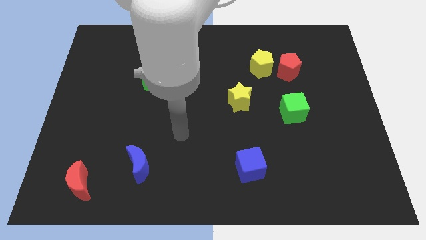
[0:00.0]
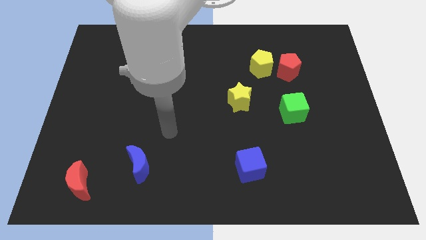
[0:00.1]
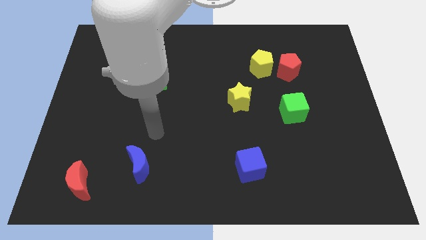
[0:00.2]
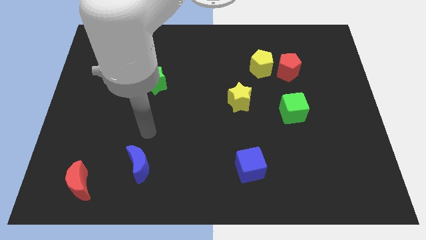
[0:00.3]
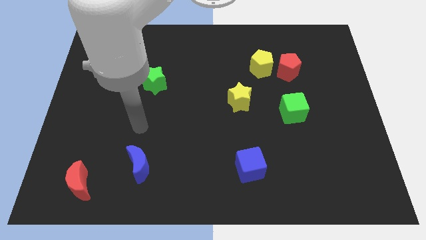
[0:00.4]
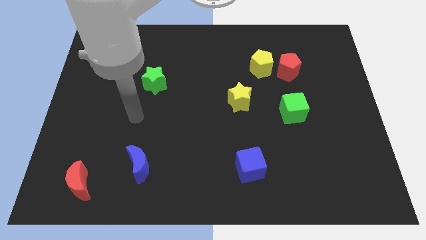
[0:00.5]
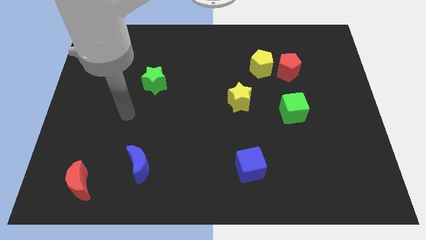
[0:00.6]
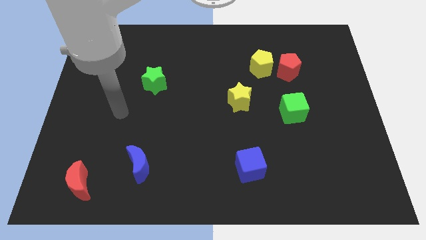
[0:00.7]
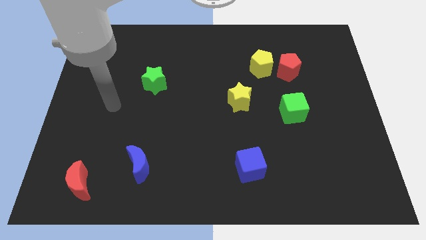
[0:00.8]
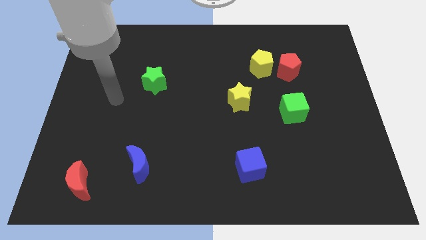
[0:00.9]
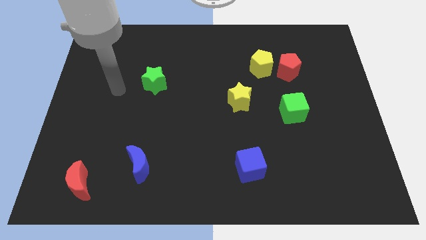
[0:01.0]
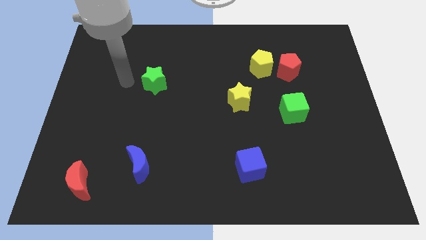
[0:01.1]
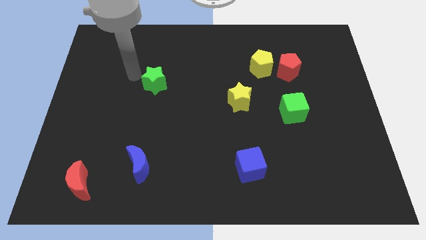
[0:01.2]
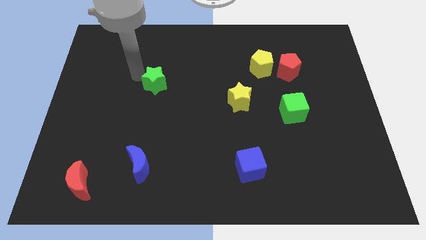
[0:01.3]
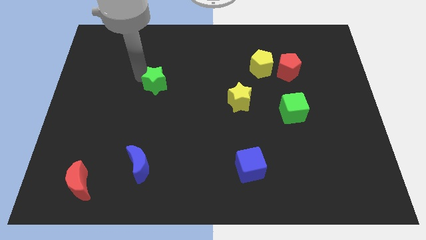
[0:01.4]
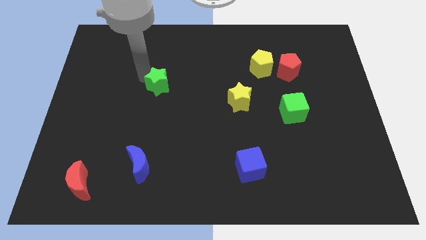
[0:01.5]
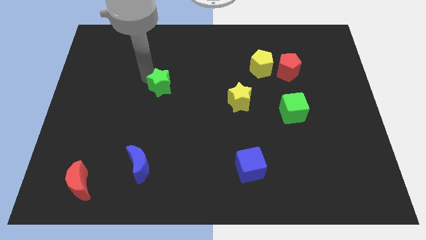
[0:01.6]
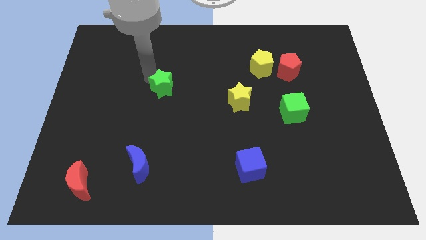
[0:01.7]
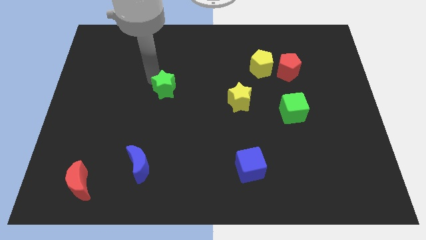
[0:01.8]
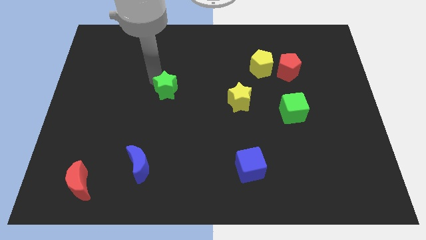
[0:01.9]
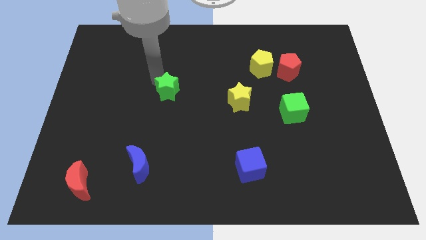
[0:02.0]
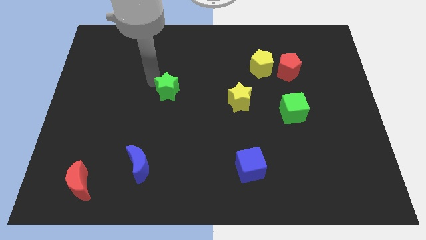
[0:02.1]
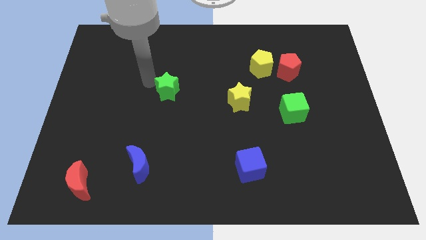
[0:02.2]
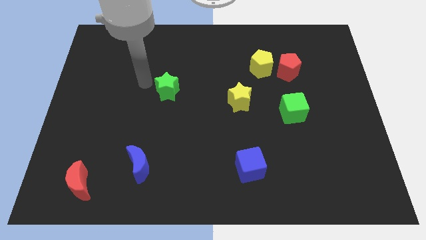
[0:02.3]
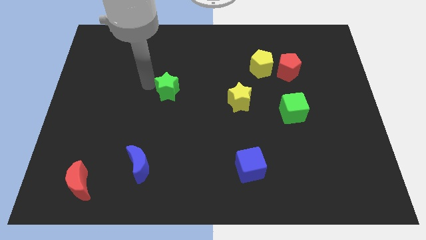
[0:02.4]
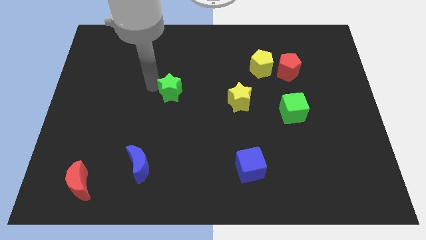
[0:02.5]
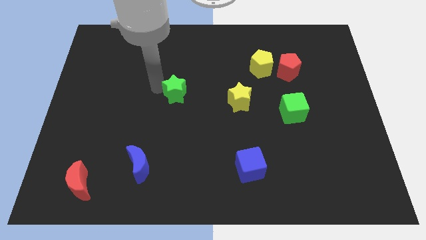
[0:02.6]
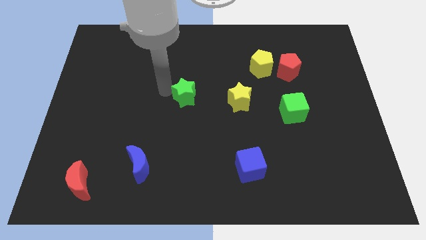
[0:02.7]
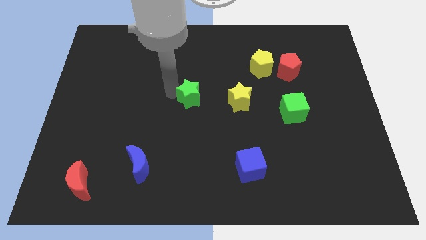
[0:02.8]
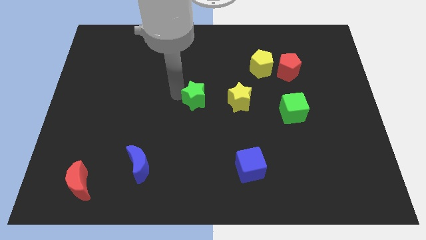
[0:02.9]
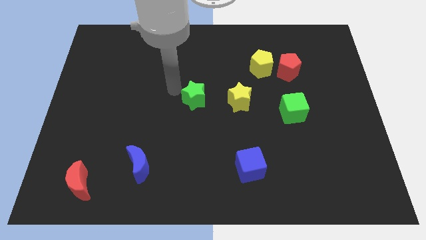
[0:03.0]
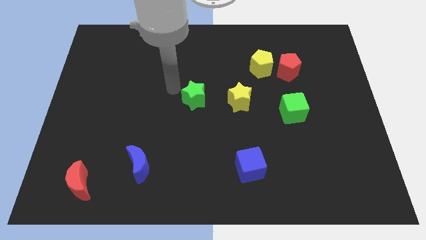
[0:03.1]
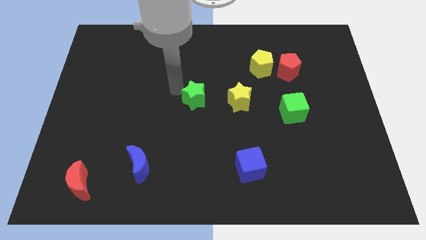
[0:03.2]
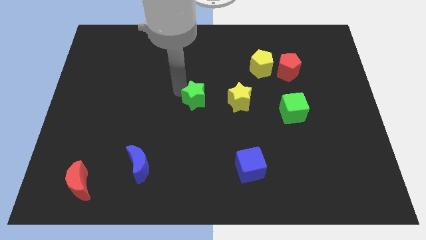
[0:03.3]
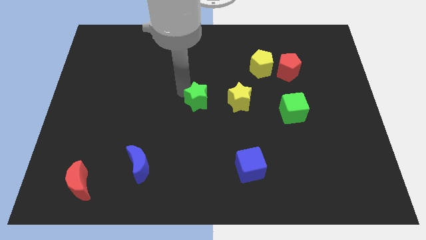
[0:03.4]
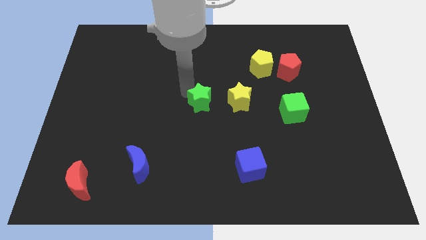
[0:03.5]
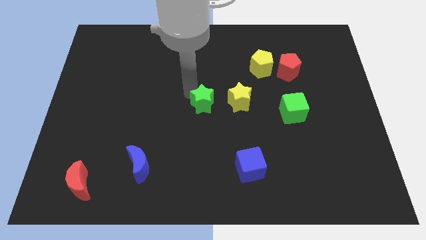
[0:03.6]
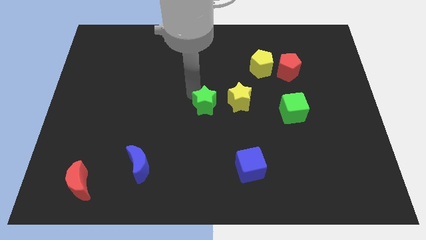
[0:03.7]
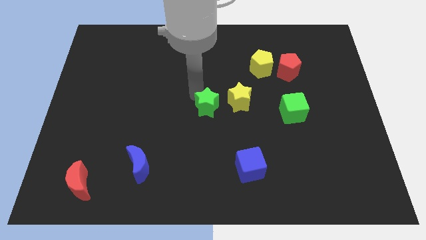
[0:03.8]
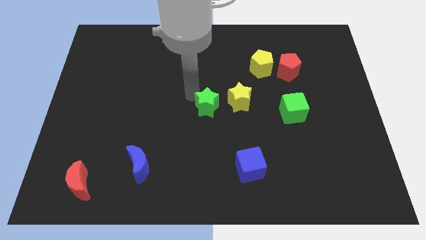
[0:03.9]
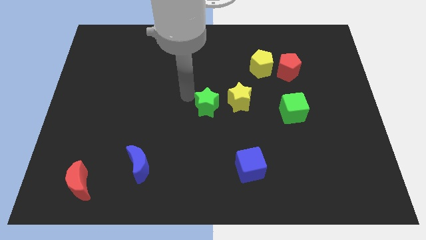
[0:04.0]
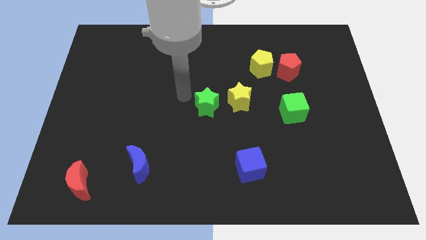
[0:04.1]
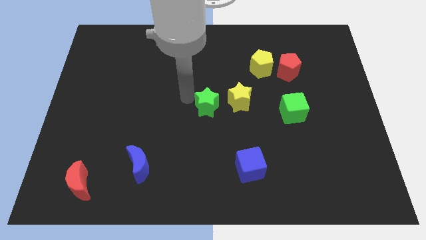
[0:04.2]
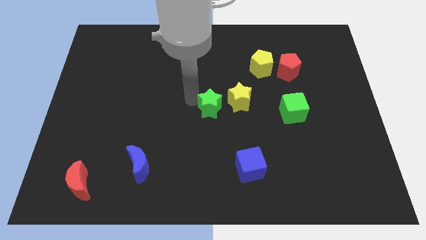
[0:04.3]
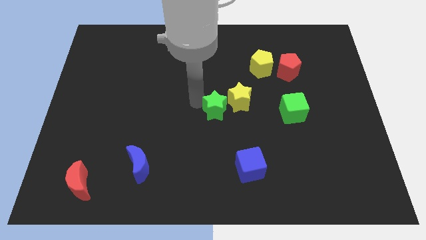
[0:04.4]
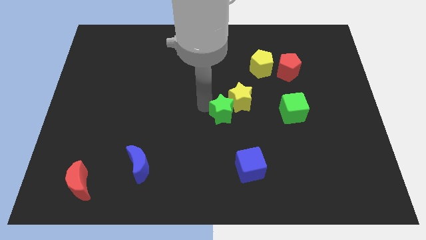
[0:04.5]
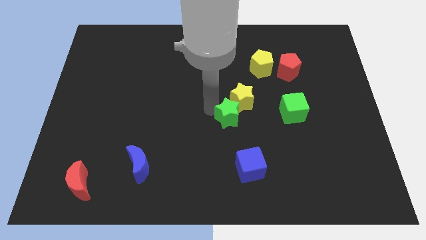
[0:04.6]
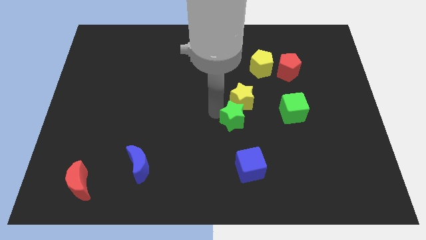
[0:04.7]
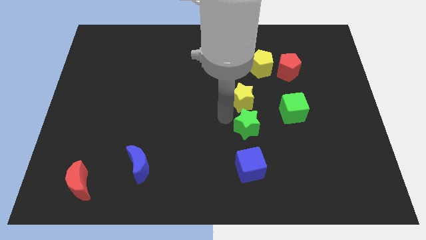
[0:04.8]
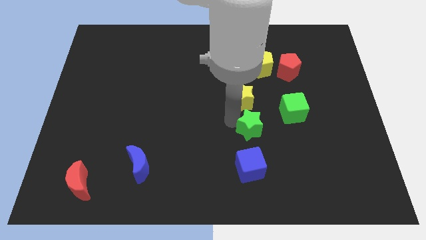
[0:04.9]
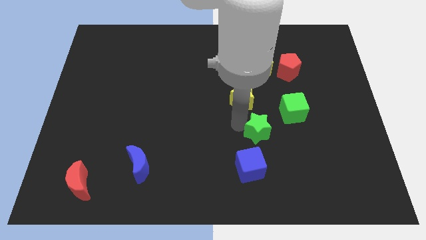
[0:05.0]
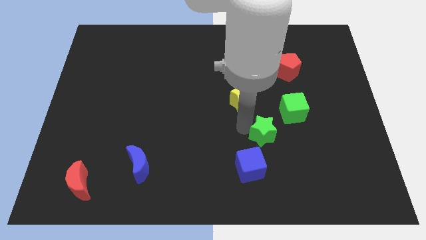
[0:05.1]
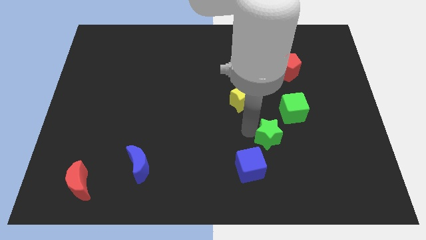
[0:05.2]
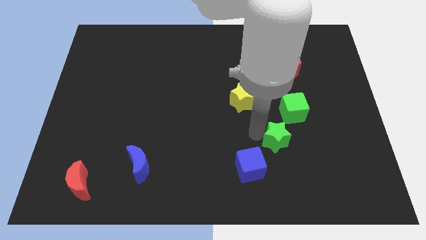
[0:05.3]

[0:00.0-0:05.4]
move the green star to the bottom of the green cube

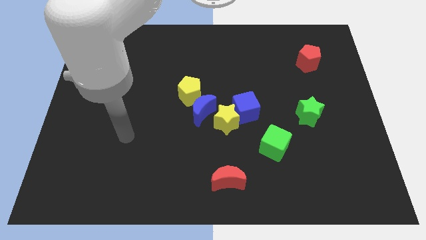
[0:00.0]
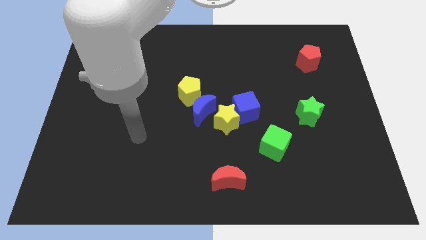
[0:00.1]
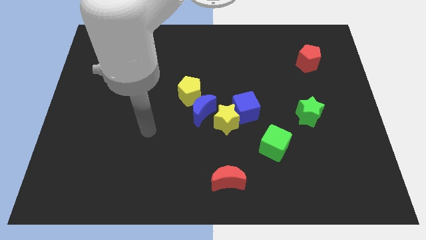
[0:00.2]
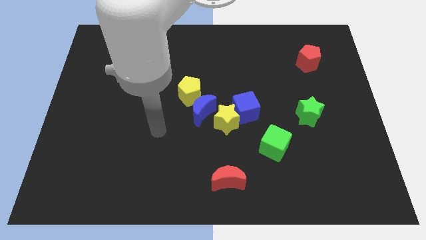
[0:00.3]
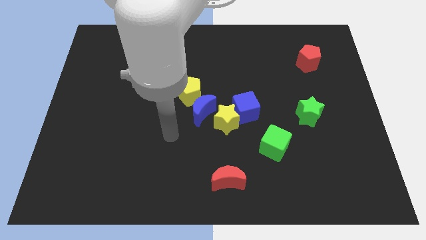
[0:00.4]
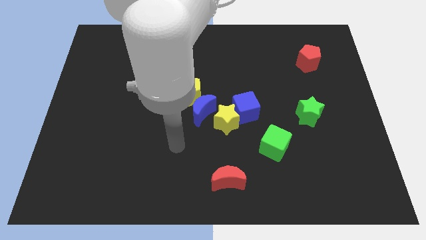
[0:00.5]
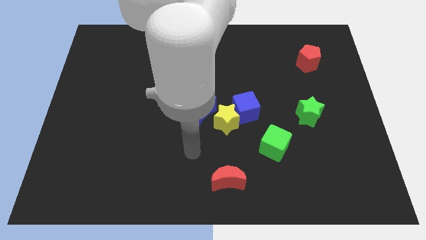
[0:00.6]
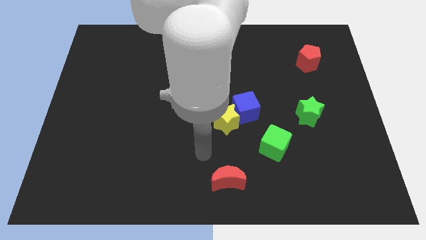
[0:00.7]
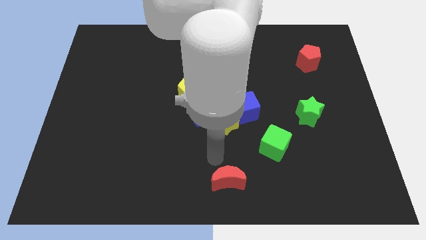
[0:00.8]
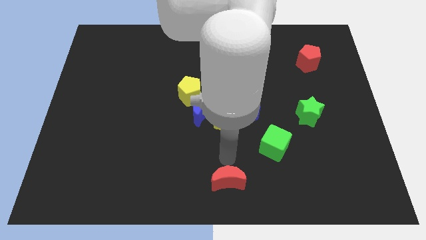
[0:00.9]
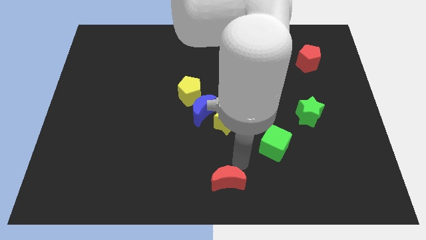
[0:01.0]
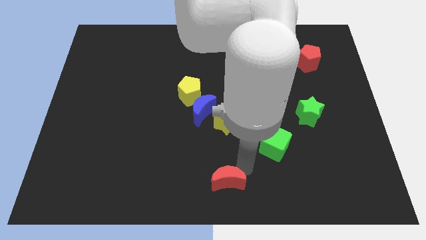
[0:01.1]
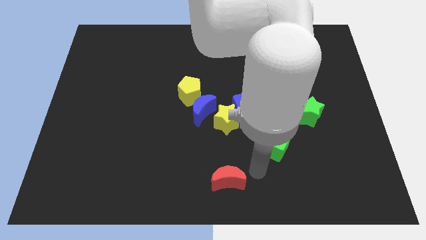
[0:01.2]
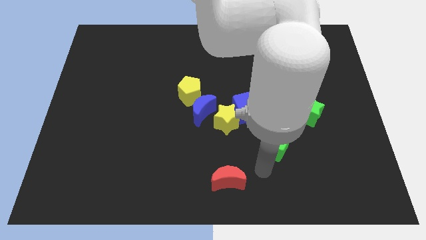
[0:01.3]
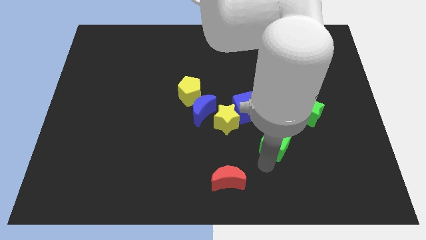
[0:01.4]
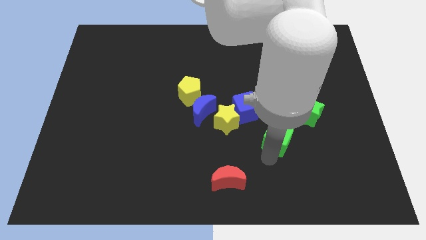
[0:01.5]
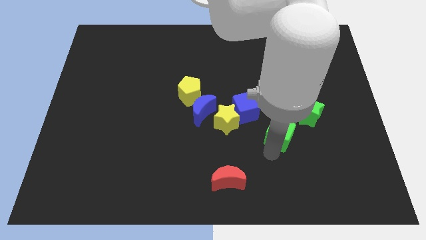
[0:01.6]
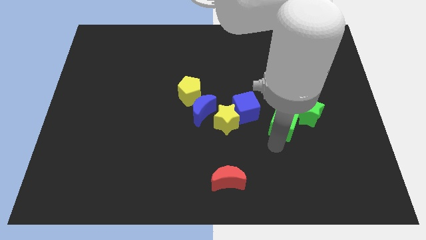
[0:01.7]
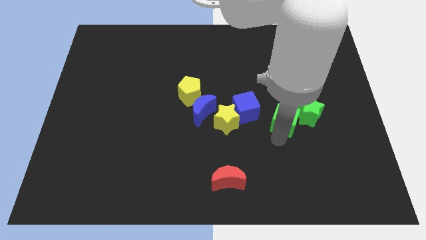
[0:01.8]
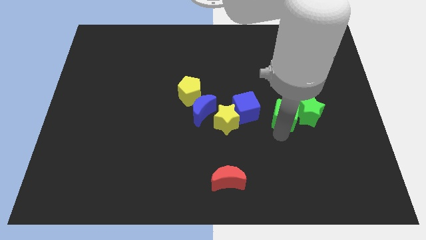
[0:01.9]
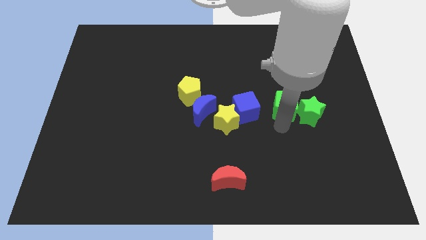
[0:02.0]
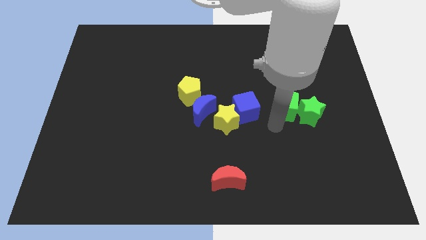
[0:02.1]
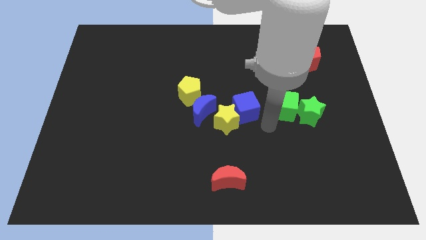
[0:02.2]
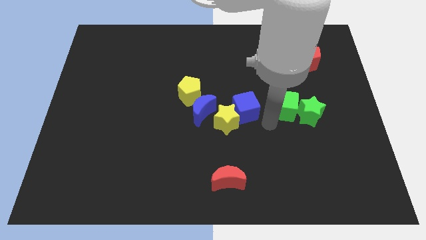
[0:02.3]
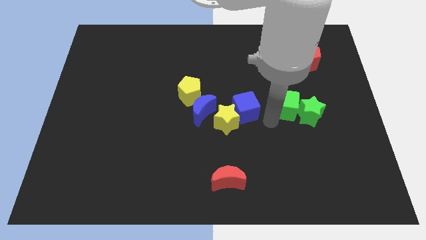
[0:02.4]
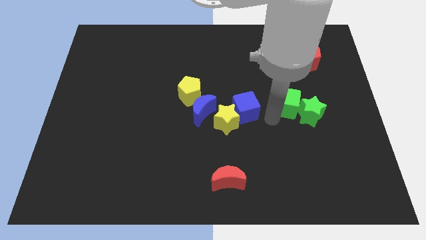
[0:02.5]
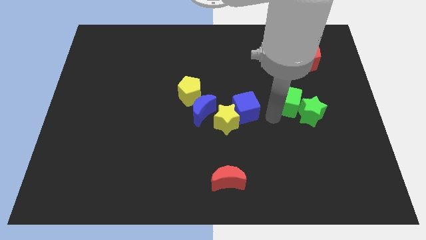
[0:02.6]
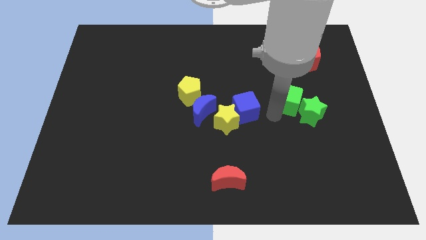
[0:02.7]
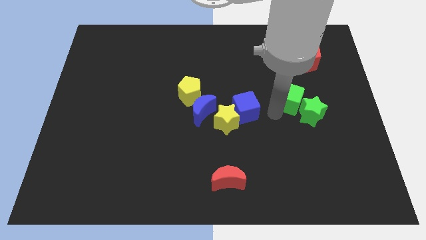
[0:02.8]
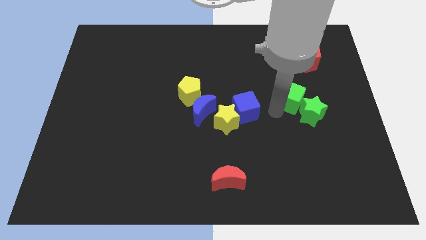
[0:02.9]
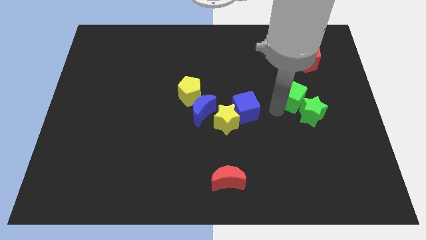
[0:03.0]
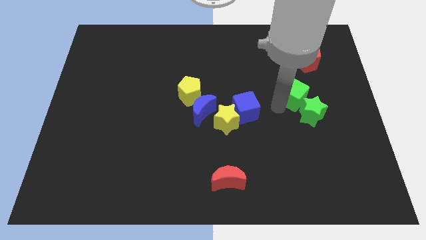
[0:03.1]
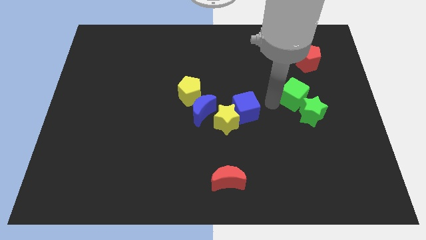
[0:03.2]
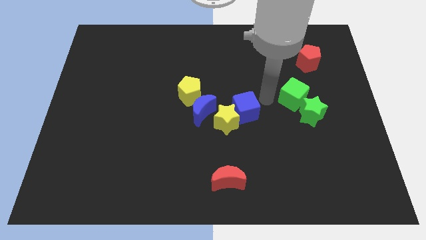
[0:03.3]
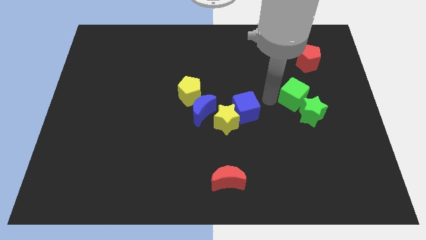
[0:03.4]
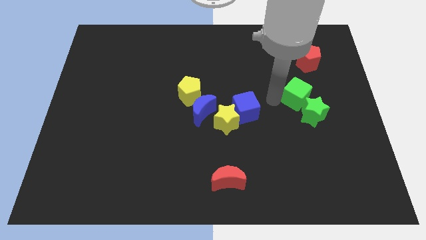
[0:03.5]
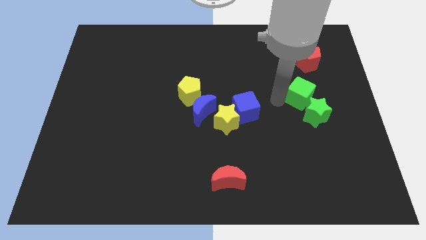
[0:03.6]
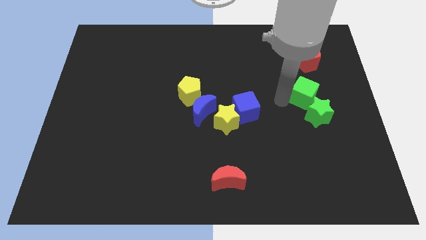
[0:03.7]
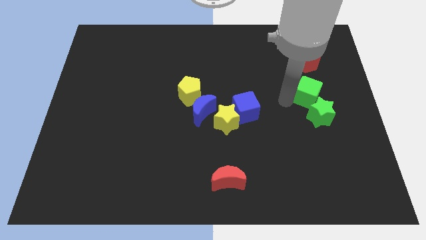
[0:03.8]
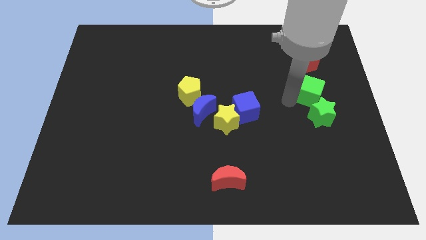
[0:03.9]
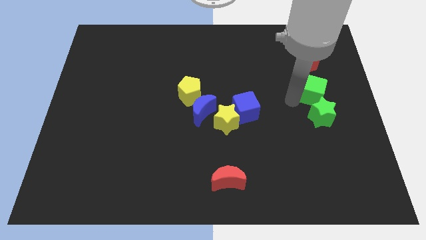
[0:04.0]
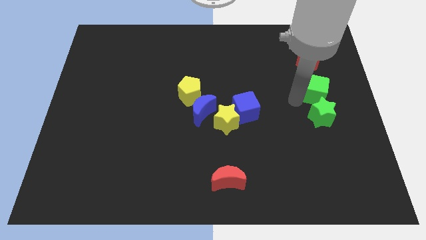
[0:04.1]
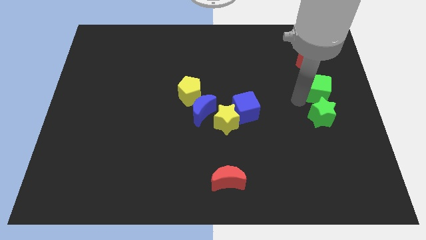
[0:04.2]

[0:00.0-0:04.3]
slide the green cube diagonally up and to the right of the green star
